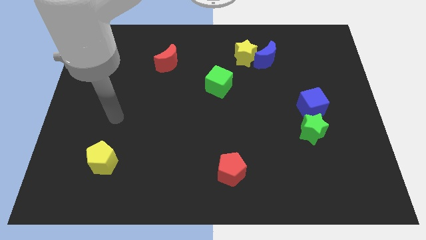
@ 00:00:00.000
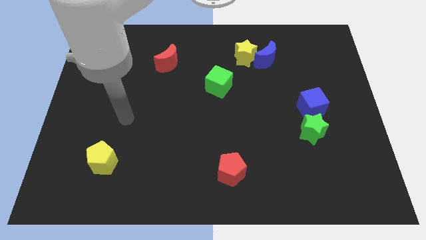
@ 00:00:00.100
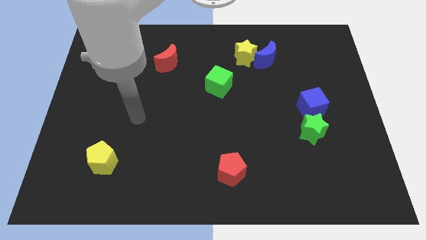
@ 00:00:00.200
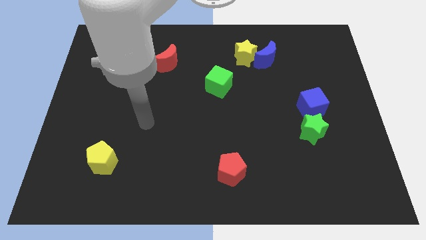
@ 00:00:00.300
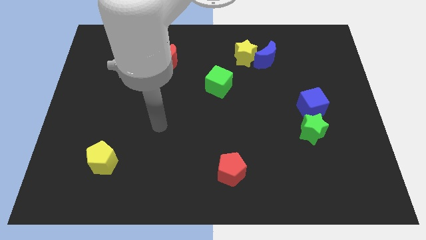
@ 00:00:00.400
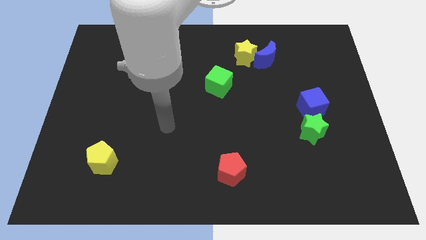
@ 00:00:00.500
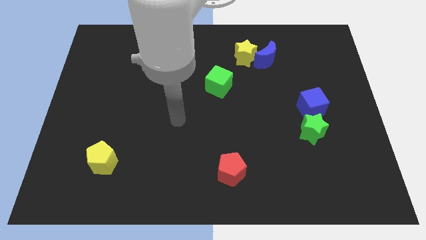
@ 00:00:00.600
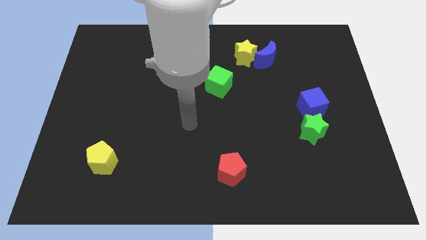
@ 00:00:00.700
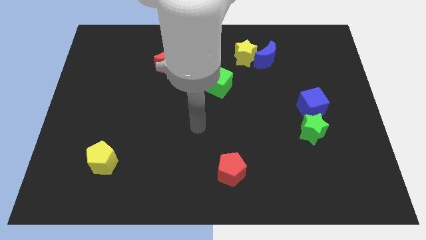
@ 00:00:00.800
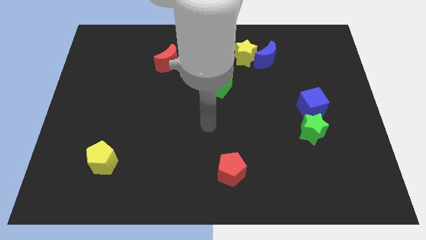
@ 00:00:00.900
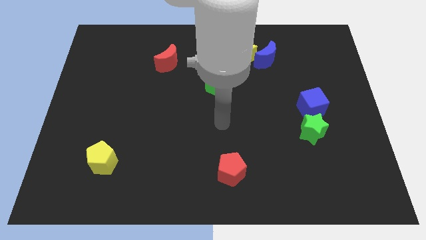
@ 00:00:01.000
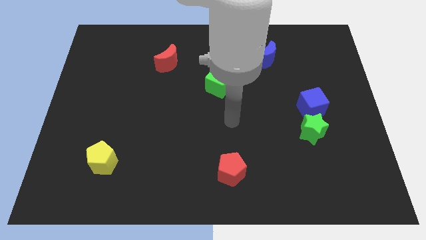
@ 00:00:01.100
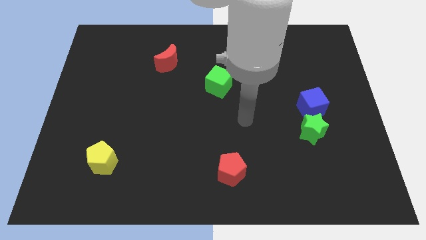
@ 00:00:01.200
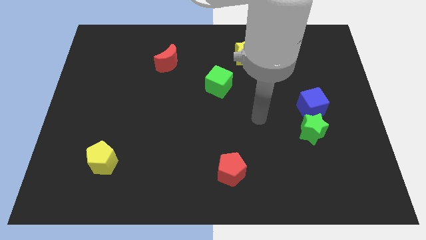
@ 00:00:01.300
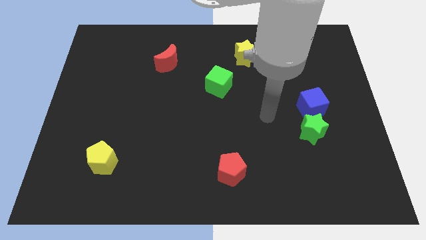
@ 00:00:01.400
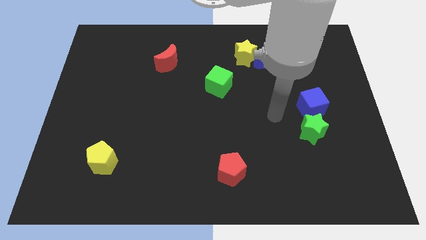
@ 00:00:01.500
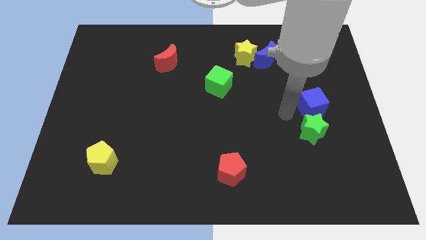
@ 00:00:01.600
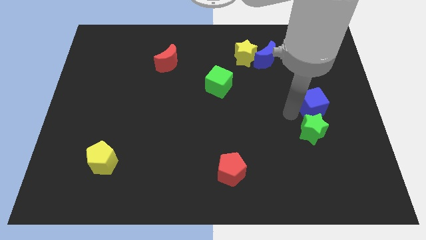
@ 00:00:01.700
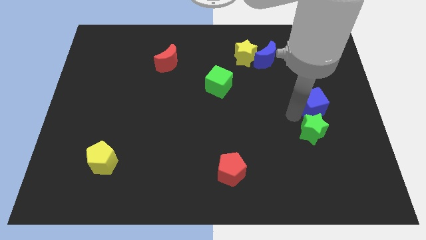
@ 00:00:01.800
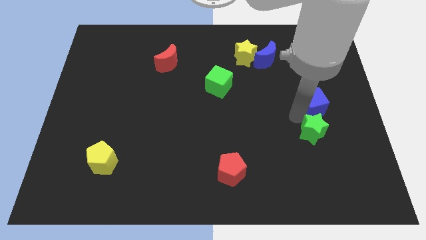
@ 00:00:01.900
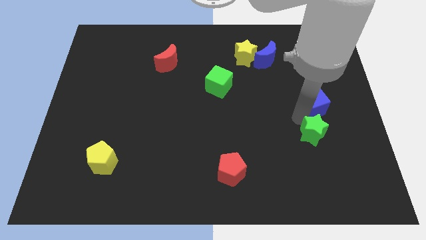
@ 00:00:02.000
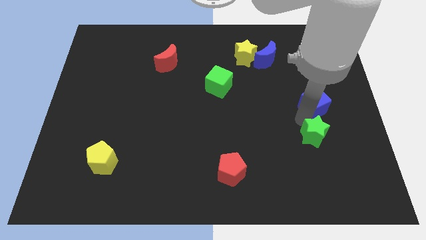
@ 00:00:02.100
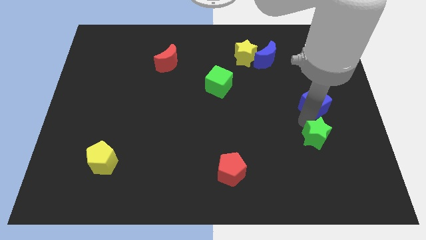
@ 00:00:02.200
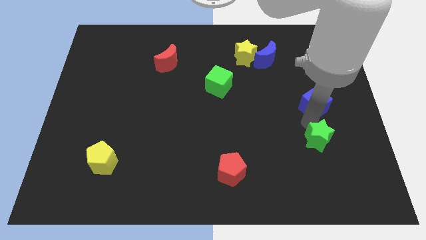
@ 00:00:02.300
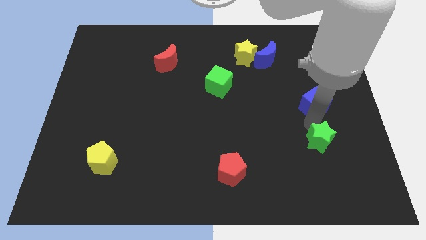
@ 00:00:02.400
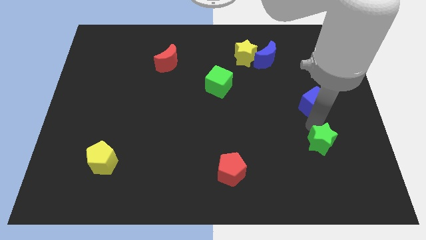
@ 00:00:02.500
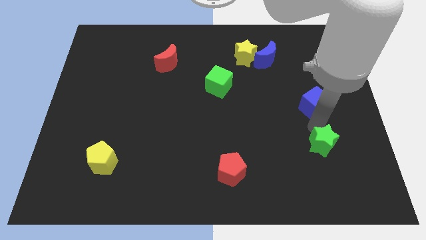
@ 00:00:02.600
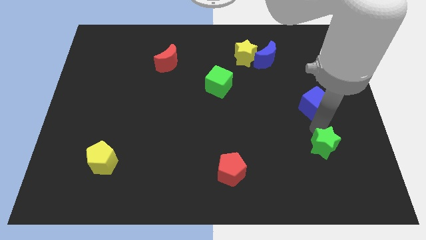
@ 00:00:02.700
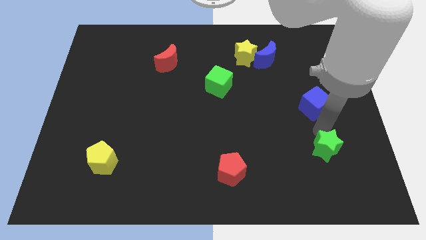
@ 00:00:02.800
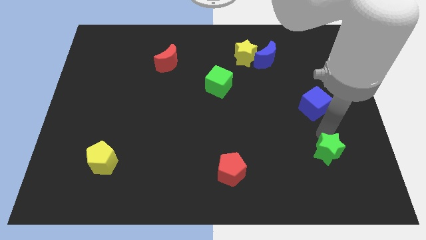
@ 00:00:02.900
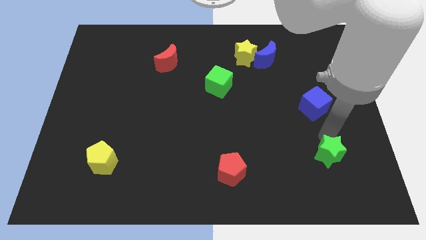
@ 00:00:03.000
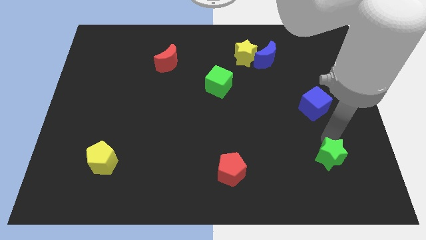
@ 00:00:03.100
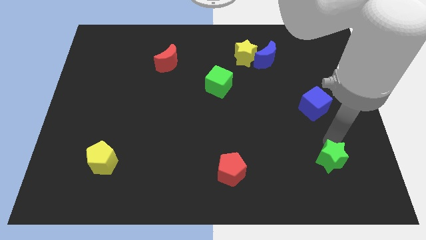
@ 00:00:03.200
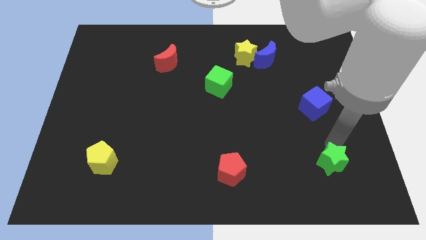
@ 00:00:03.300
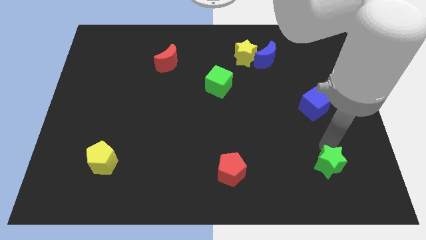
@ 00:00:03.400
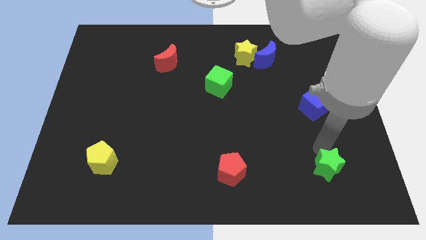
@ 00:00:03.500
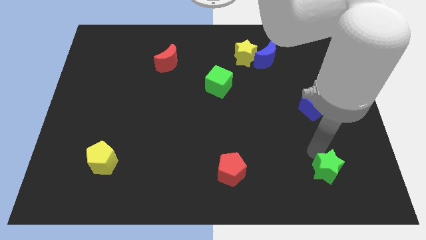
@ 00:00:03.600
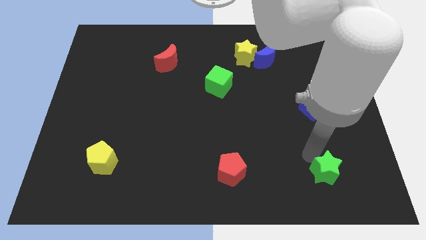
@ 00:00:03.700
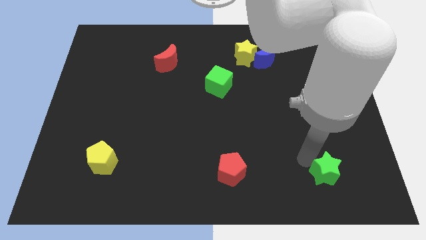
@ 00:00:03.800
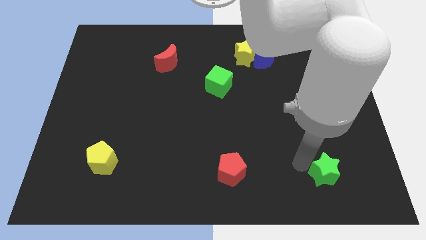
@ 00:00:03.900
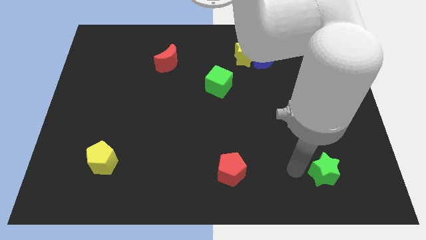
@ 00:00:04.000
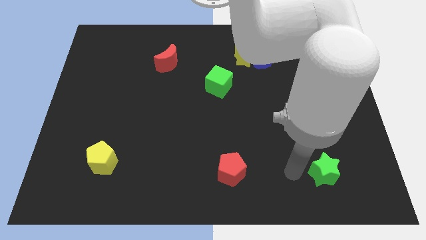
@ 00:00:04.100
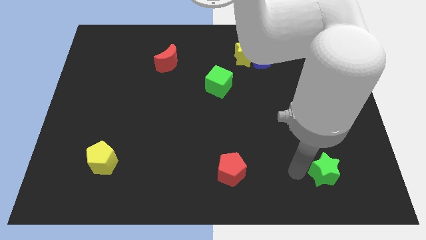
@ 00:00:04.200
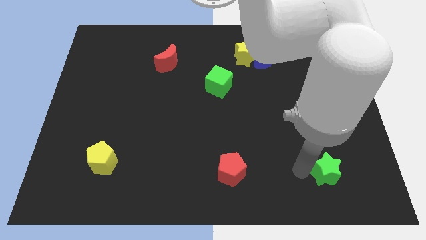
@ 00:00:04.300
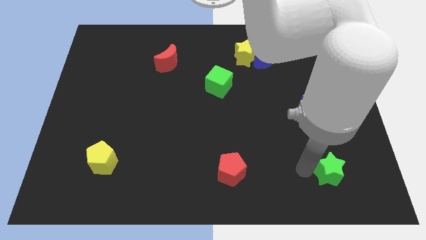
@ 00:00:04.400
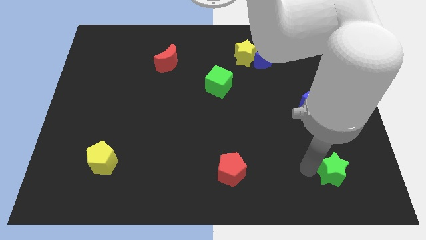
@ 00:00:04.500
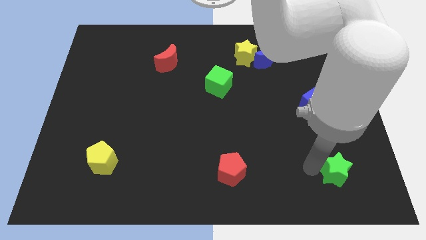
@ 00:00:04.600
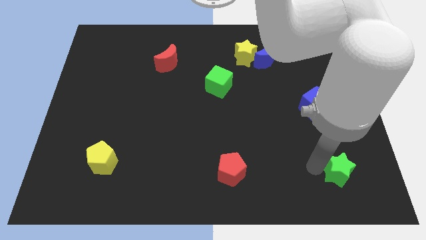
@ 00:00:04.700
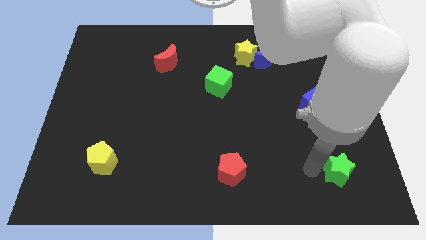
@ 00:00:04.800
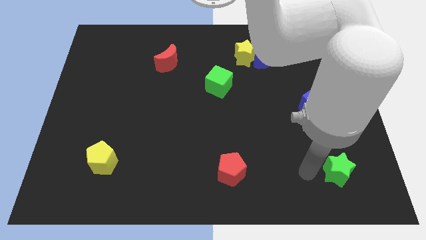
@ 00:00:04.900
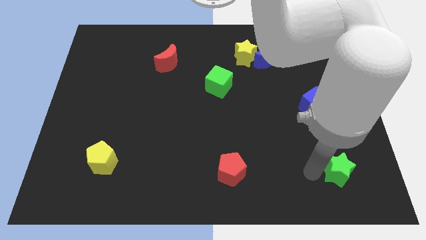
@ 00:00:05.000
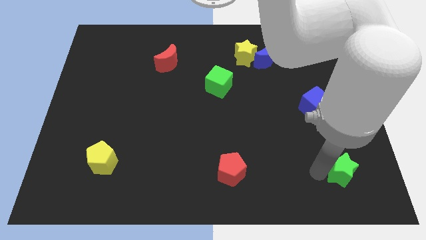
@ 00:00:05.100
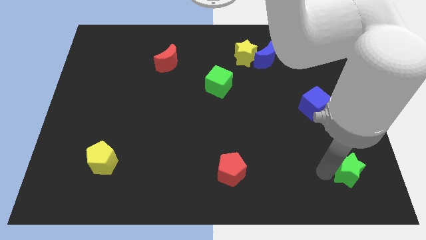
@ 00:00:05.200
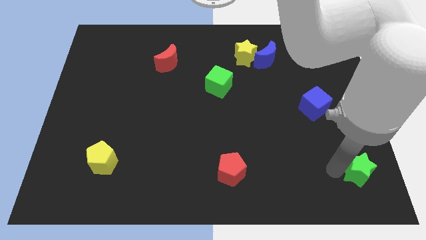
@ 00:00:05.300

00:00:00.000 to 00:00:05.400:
move the green star to the bottom right corner
